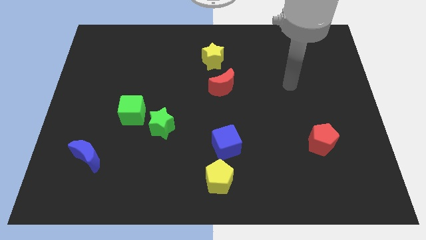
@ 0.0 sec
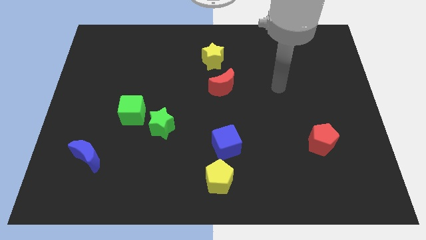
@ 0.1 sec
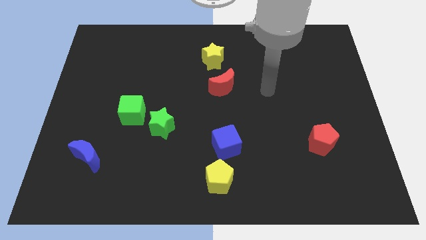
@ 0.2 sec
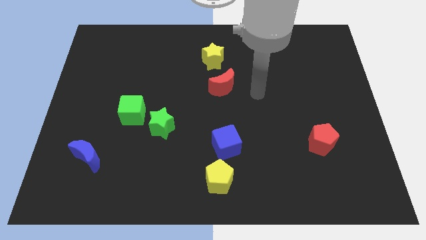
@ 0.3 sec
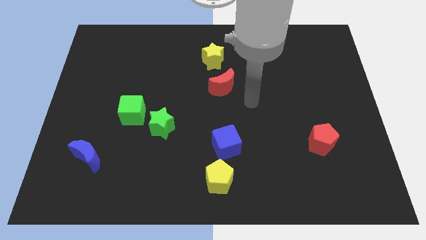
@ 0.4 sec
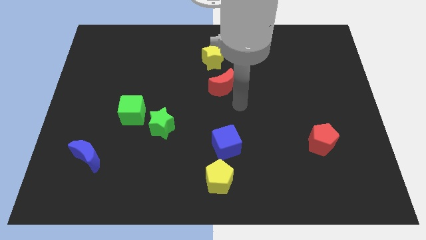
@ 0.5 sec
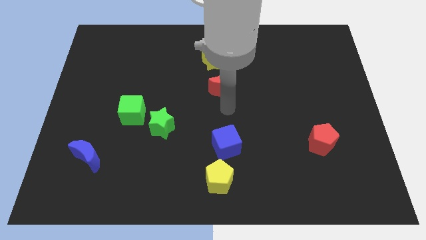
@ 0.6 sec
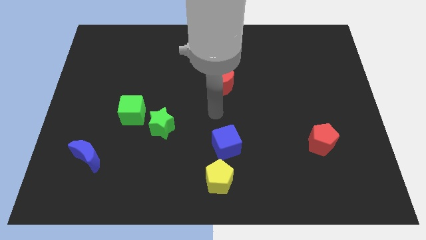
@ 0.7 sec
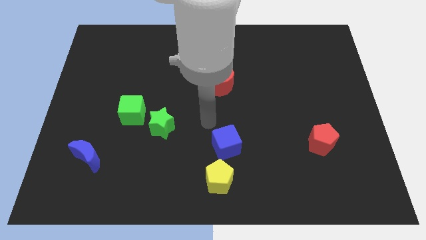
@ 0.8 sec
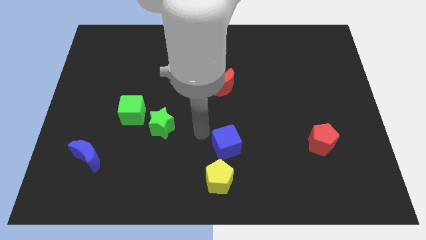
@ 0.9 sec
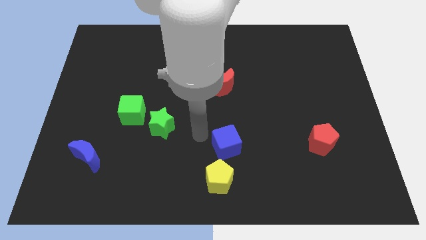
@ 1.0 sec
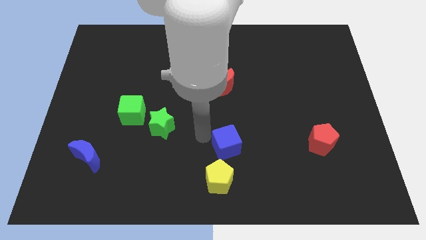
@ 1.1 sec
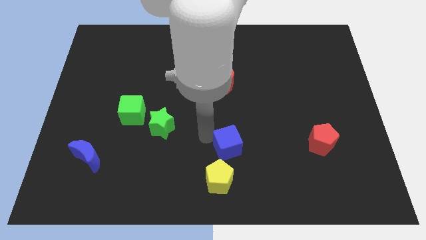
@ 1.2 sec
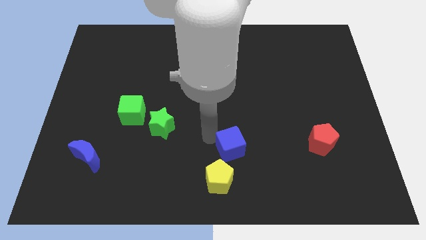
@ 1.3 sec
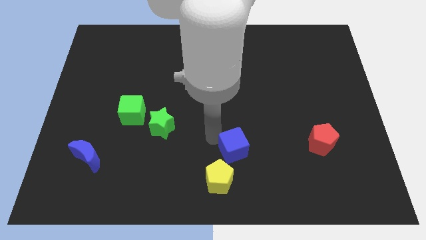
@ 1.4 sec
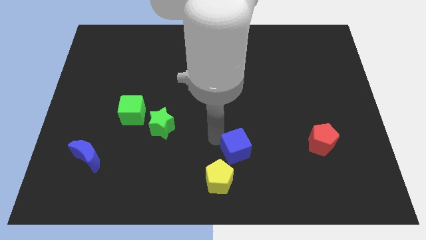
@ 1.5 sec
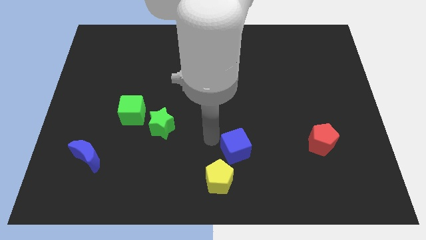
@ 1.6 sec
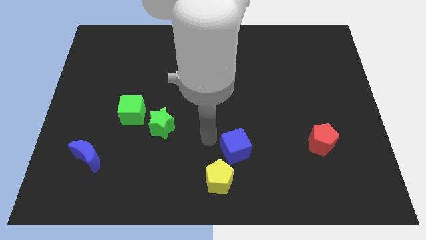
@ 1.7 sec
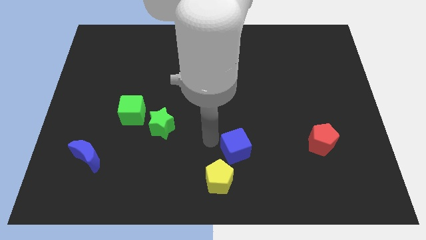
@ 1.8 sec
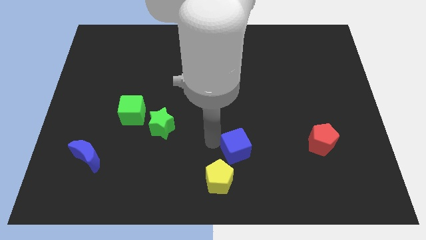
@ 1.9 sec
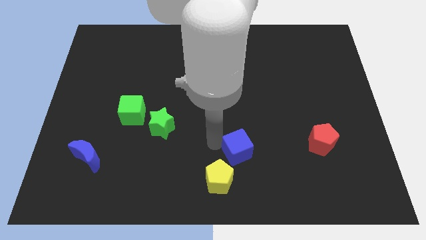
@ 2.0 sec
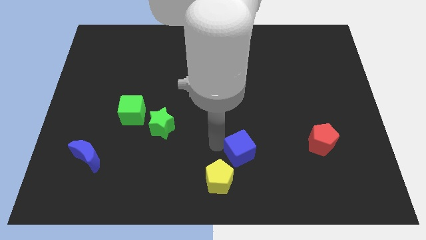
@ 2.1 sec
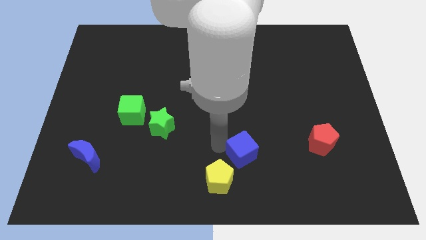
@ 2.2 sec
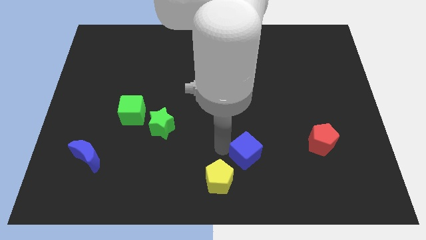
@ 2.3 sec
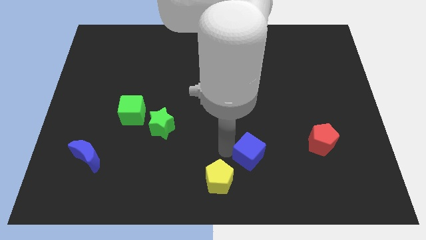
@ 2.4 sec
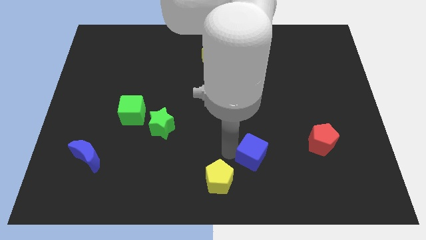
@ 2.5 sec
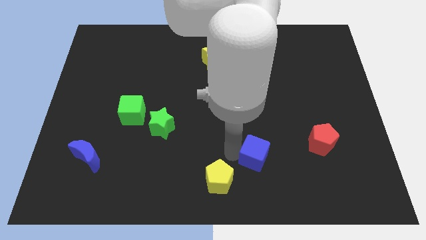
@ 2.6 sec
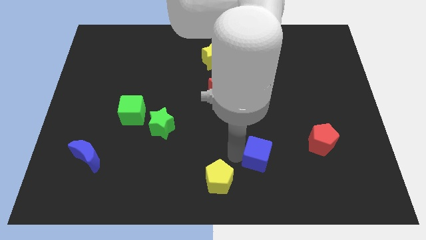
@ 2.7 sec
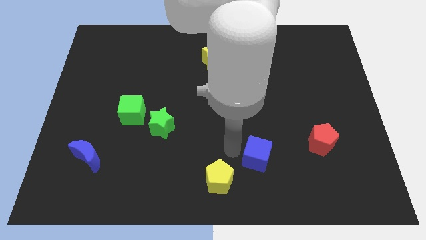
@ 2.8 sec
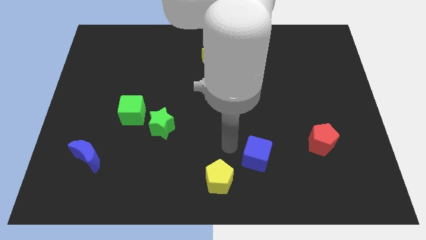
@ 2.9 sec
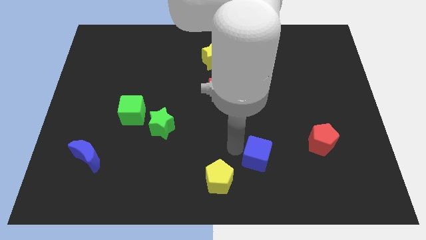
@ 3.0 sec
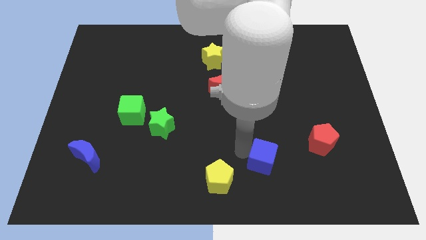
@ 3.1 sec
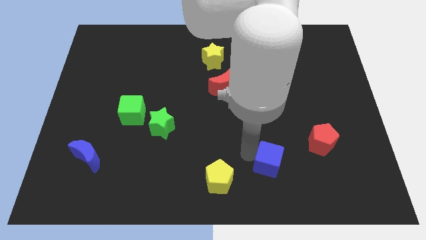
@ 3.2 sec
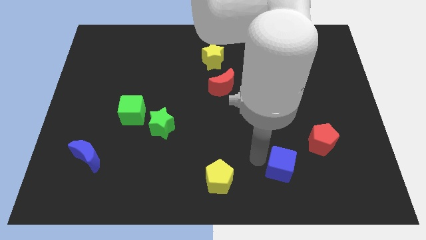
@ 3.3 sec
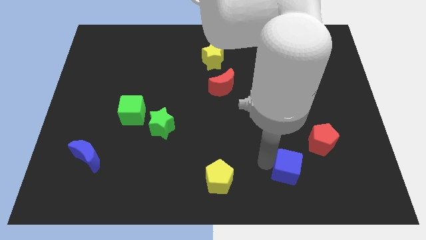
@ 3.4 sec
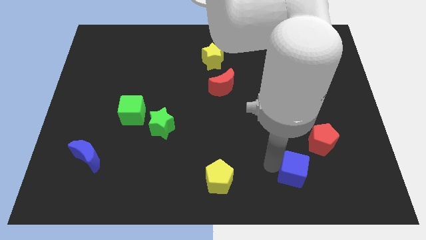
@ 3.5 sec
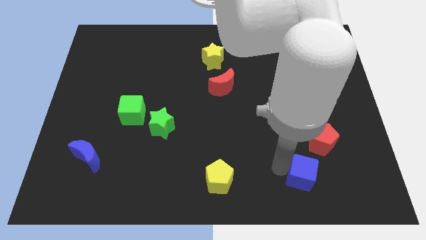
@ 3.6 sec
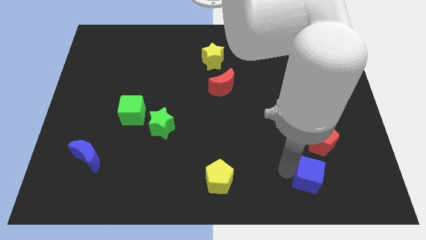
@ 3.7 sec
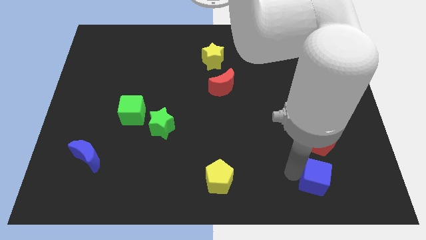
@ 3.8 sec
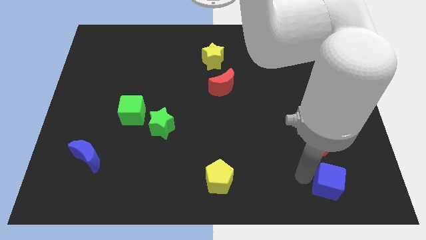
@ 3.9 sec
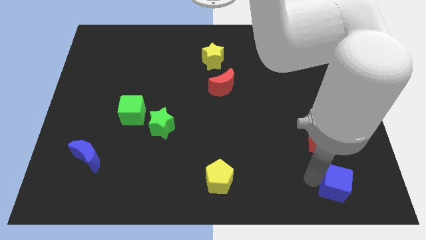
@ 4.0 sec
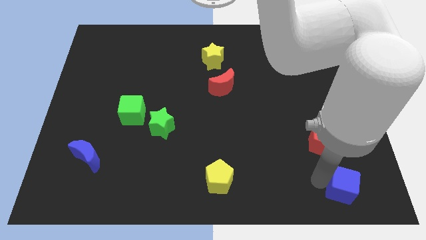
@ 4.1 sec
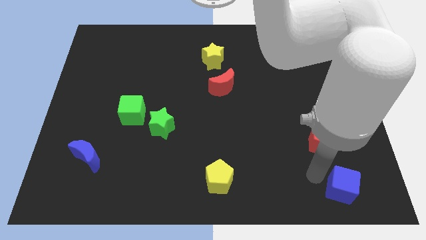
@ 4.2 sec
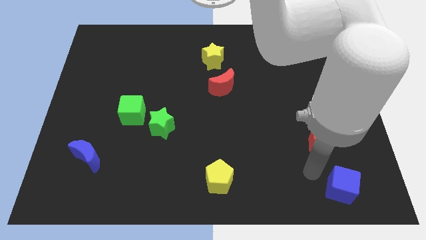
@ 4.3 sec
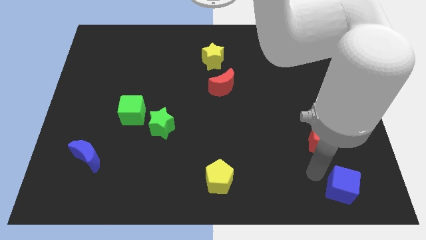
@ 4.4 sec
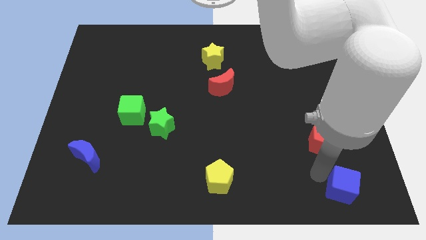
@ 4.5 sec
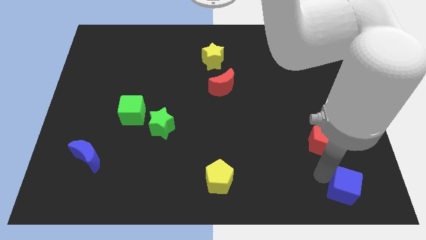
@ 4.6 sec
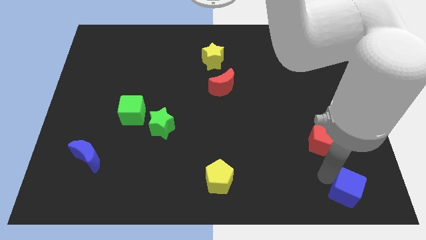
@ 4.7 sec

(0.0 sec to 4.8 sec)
put the blue cube to the bottom right

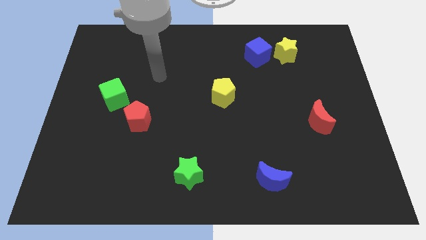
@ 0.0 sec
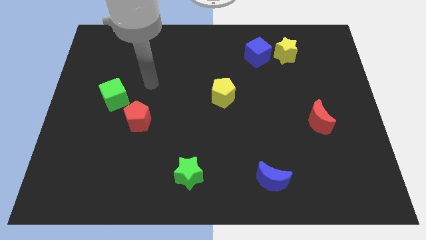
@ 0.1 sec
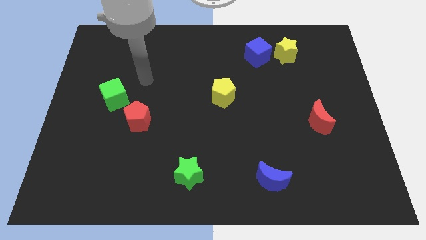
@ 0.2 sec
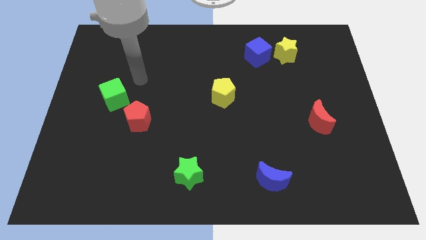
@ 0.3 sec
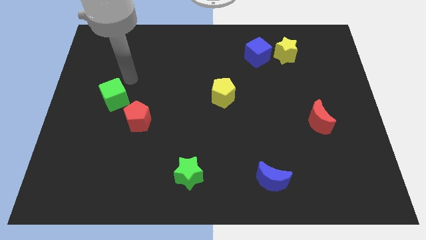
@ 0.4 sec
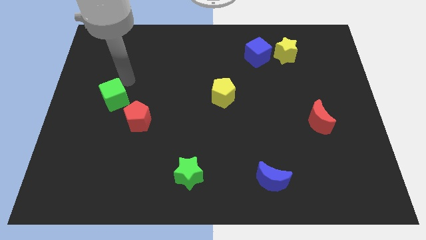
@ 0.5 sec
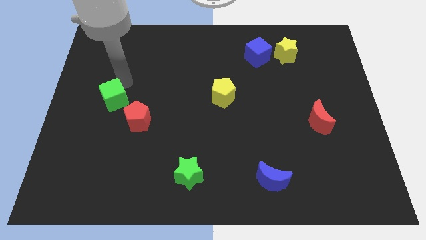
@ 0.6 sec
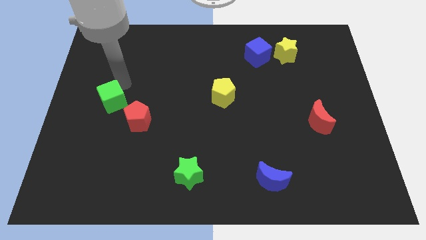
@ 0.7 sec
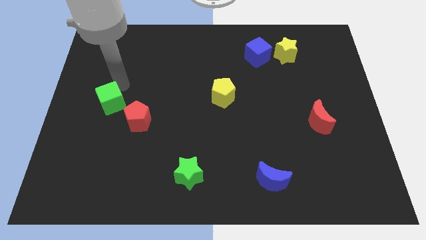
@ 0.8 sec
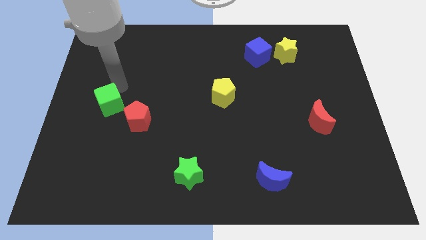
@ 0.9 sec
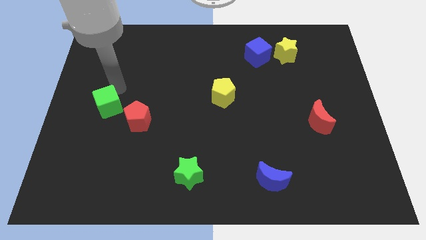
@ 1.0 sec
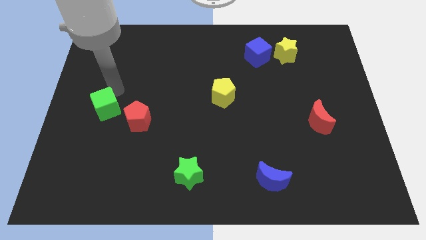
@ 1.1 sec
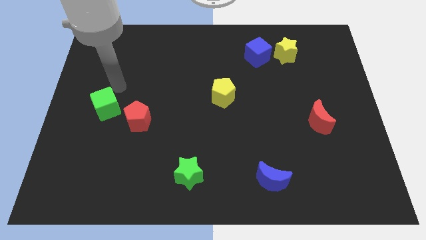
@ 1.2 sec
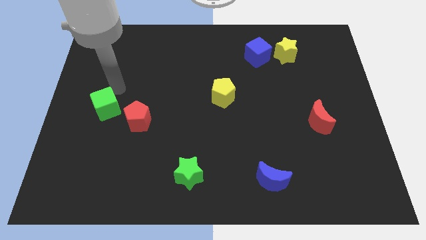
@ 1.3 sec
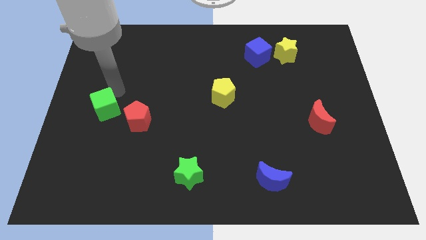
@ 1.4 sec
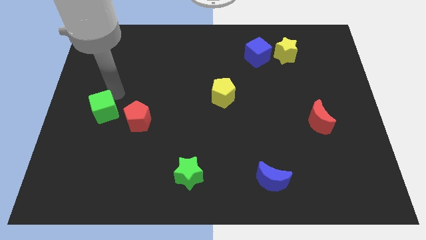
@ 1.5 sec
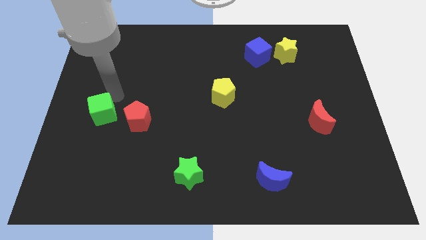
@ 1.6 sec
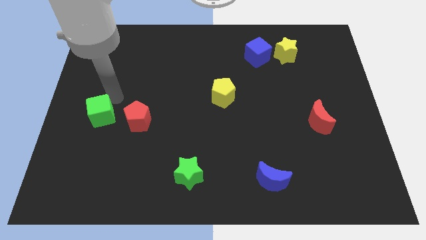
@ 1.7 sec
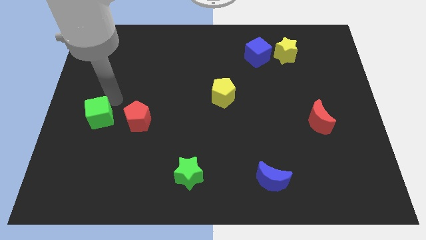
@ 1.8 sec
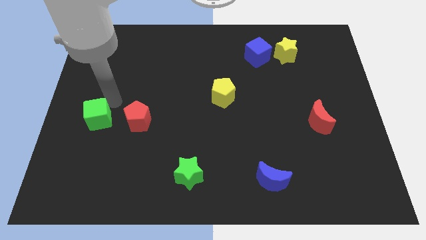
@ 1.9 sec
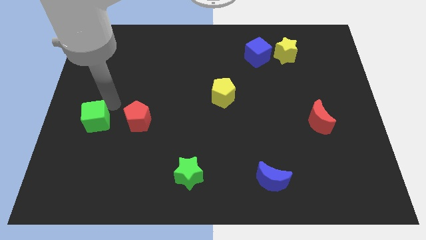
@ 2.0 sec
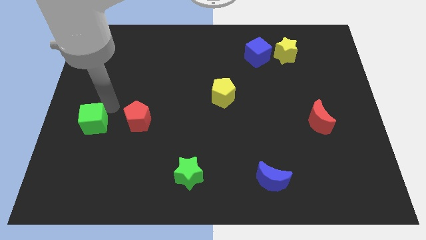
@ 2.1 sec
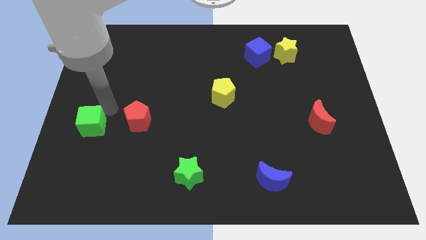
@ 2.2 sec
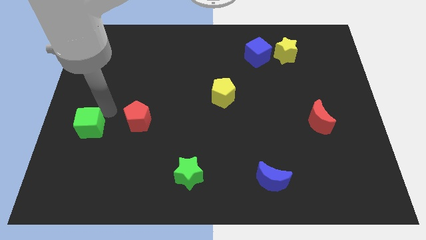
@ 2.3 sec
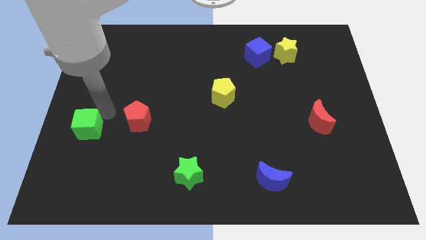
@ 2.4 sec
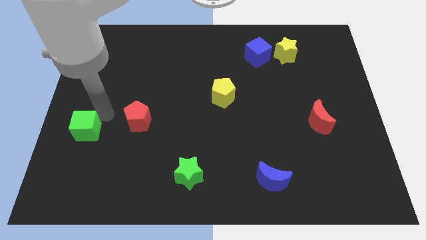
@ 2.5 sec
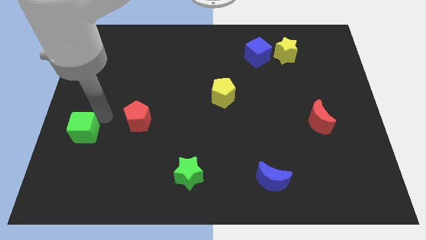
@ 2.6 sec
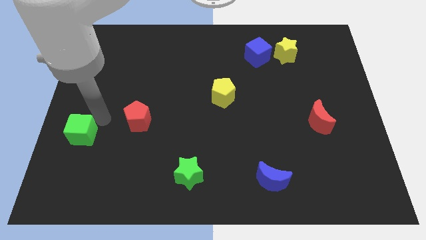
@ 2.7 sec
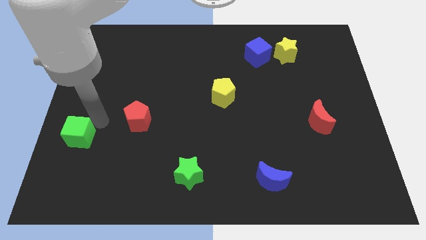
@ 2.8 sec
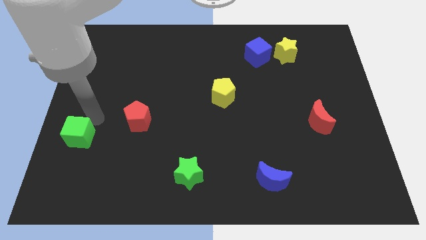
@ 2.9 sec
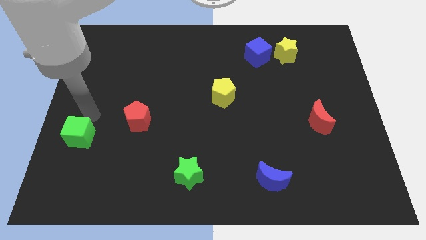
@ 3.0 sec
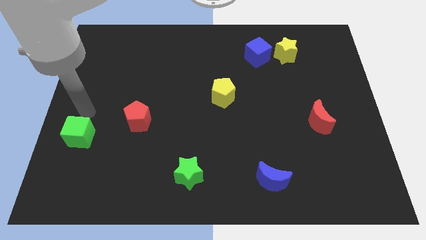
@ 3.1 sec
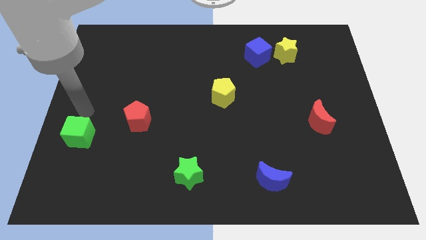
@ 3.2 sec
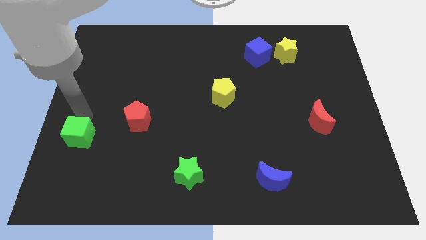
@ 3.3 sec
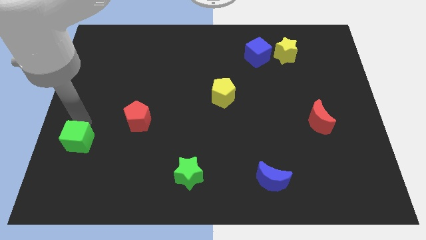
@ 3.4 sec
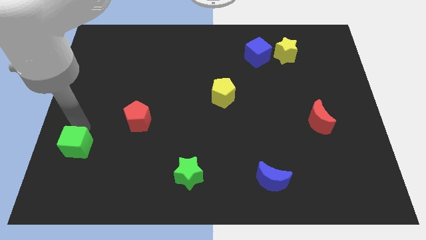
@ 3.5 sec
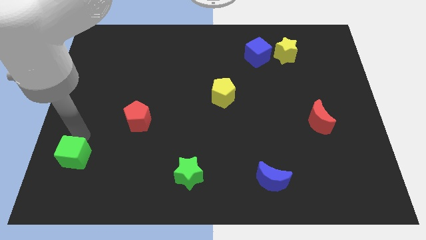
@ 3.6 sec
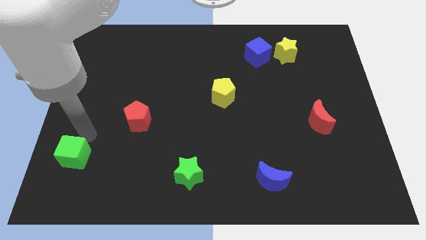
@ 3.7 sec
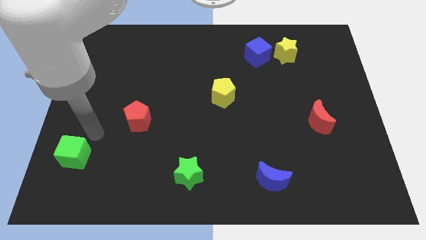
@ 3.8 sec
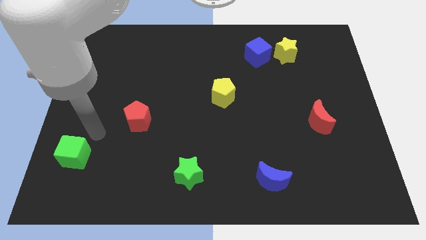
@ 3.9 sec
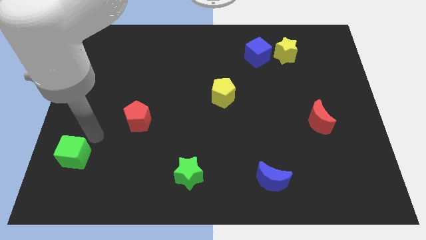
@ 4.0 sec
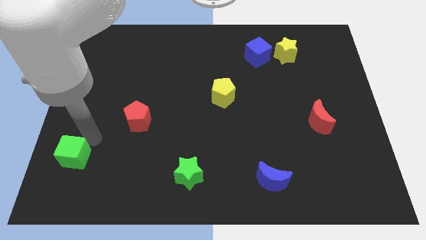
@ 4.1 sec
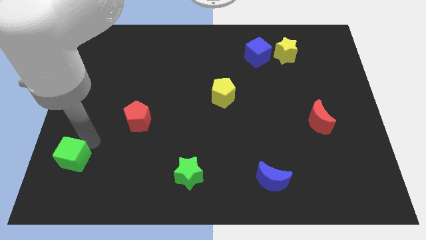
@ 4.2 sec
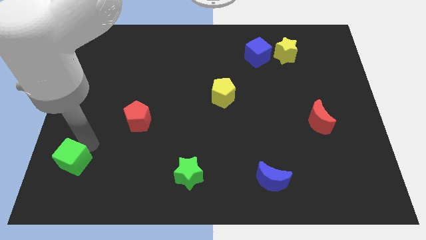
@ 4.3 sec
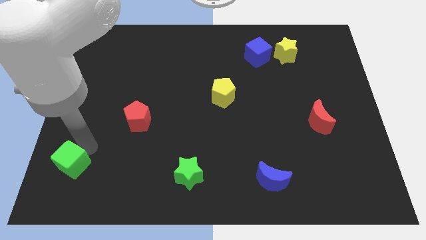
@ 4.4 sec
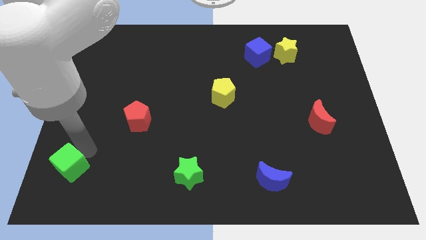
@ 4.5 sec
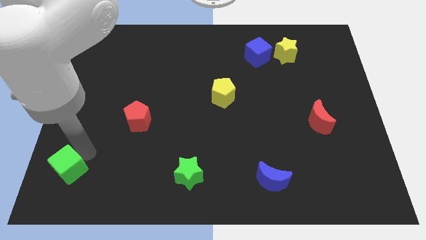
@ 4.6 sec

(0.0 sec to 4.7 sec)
move the green cube to the bottom left of the board
